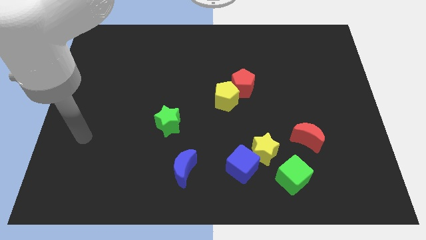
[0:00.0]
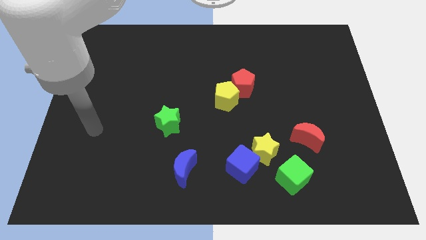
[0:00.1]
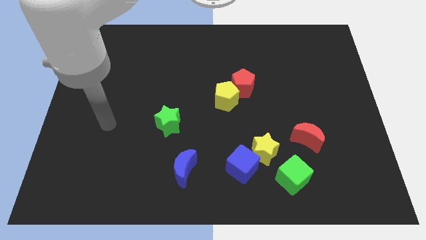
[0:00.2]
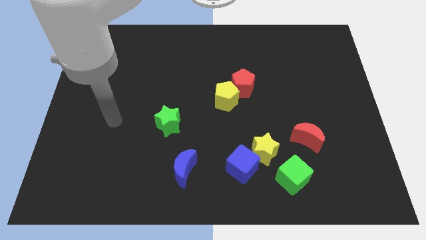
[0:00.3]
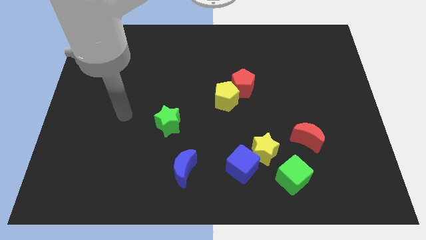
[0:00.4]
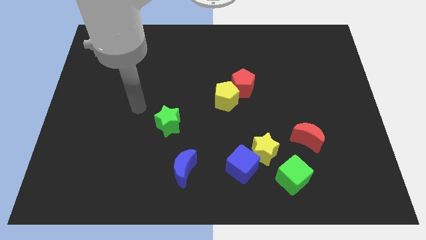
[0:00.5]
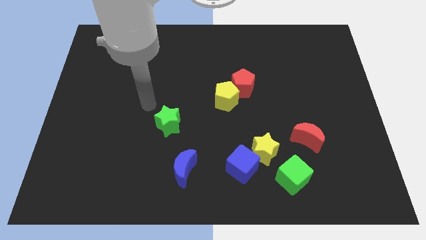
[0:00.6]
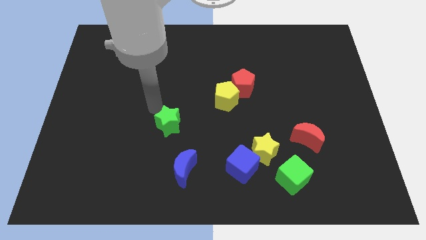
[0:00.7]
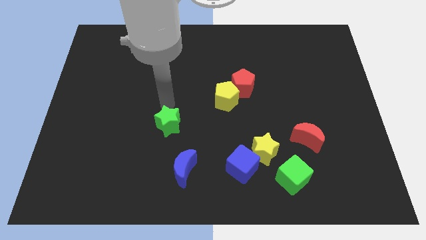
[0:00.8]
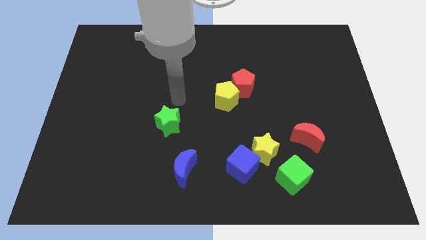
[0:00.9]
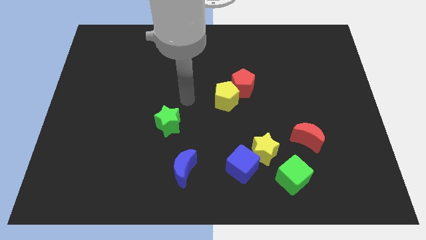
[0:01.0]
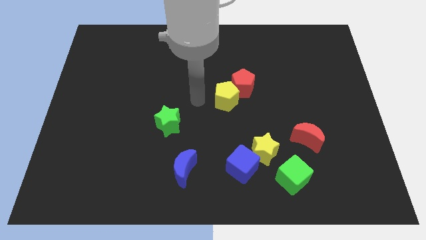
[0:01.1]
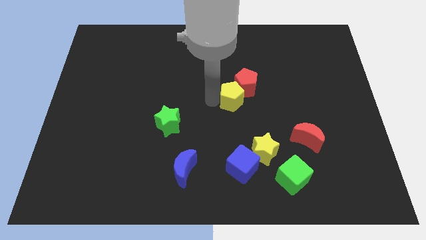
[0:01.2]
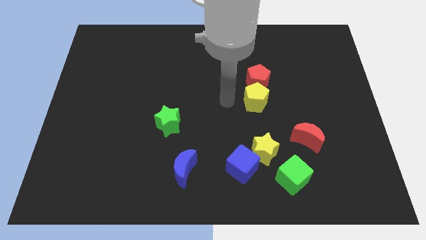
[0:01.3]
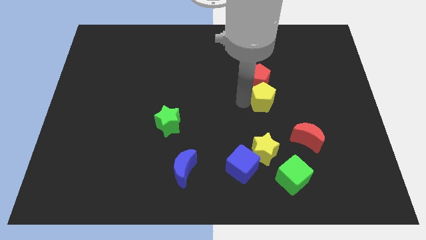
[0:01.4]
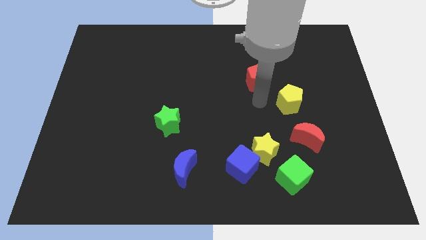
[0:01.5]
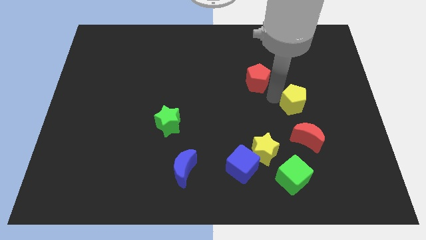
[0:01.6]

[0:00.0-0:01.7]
separate the red pentagon from the yellow pentagon

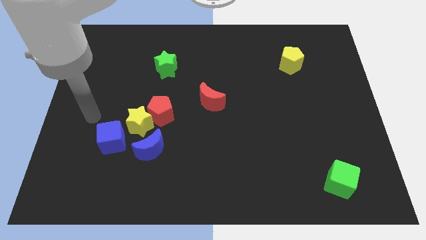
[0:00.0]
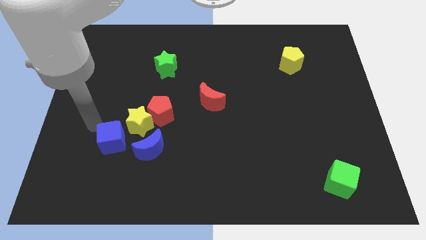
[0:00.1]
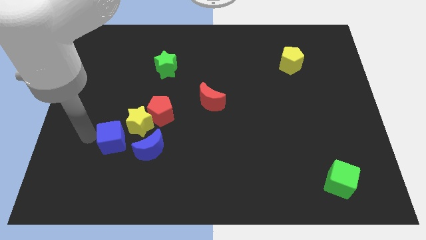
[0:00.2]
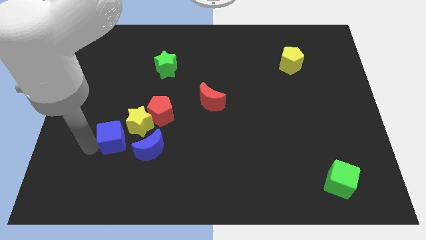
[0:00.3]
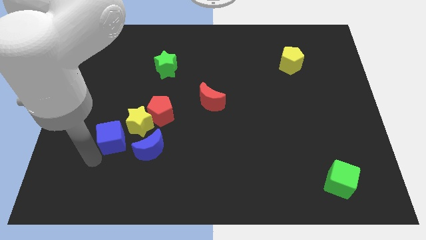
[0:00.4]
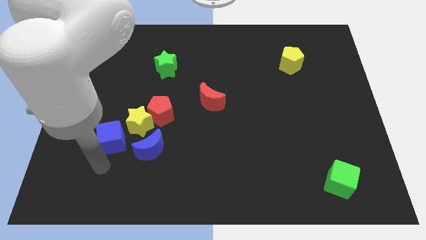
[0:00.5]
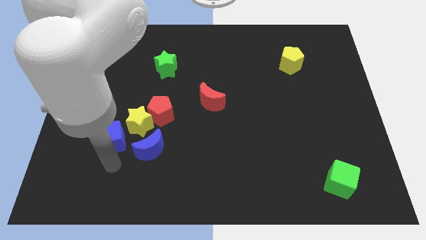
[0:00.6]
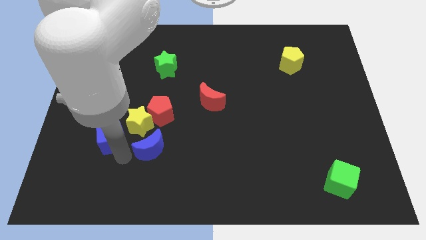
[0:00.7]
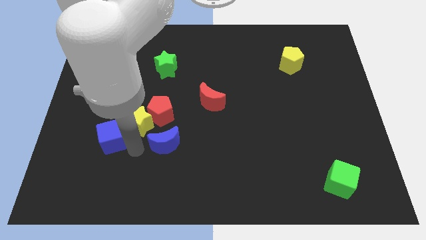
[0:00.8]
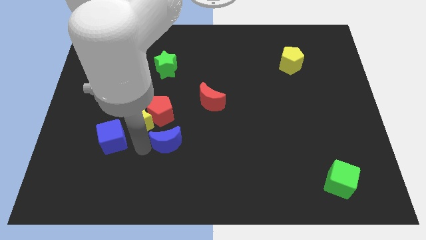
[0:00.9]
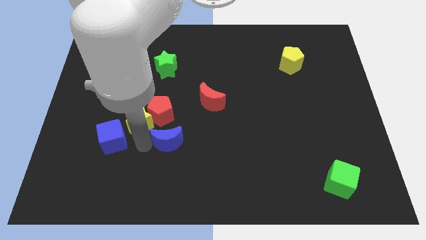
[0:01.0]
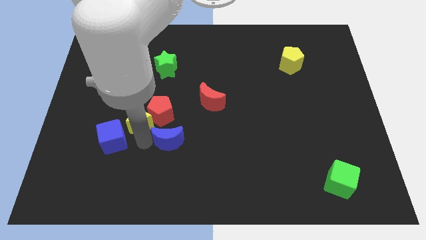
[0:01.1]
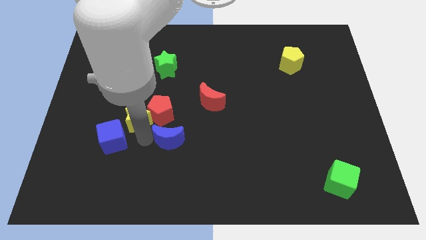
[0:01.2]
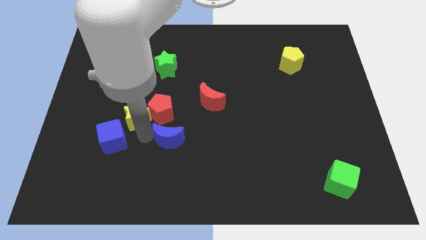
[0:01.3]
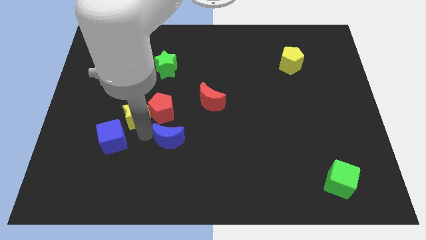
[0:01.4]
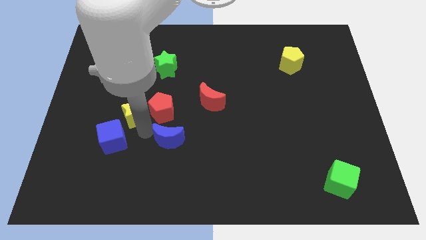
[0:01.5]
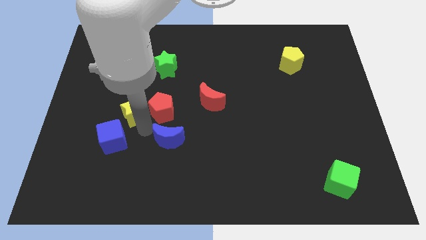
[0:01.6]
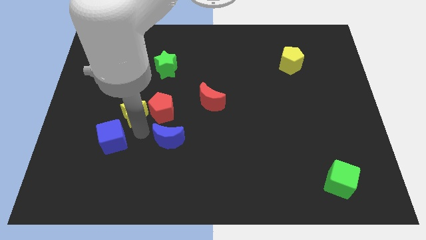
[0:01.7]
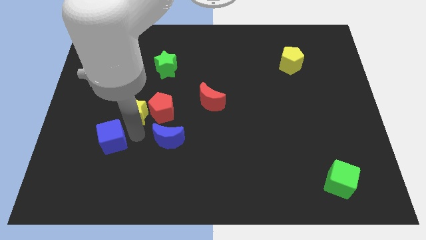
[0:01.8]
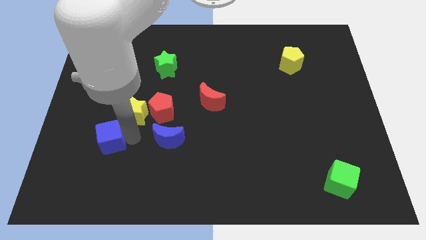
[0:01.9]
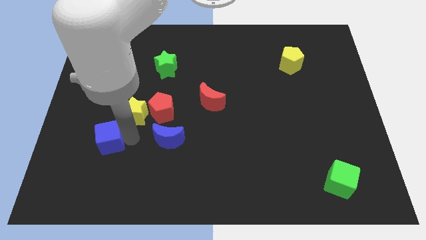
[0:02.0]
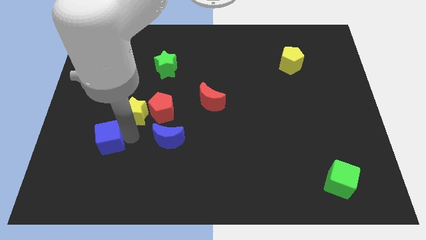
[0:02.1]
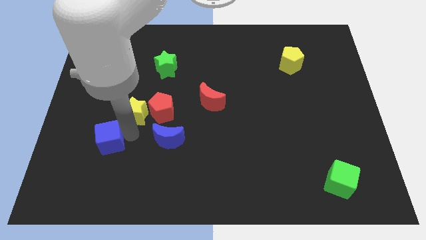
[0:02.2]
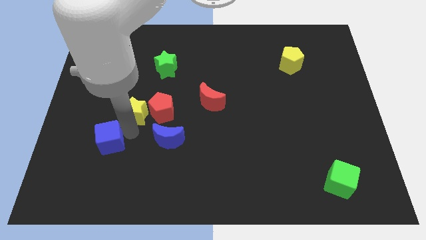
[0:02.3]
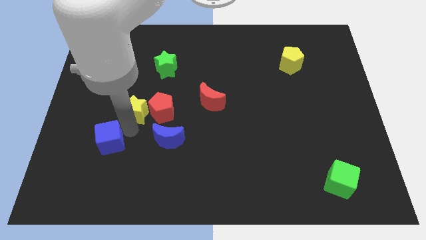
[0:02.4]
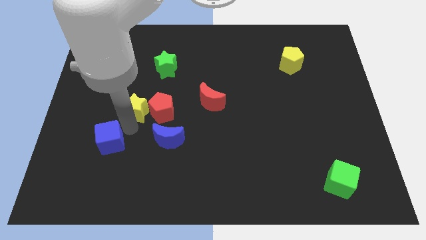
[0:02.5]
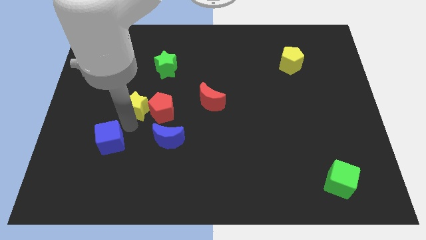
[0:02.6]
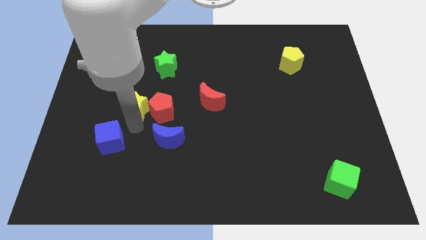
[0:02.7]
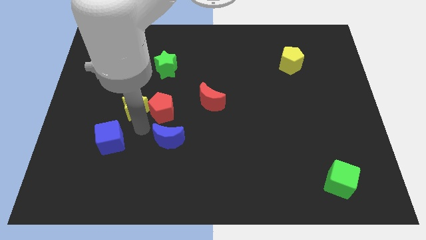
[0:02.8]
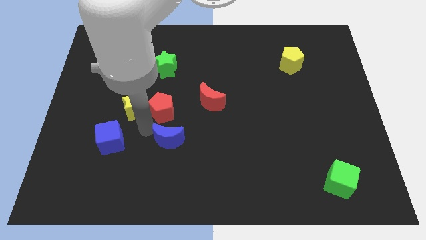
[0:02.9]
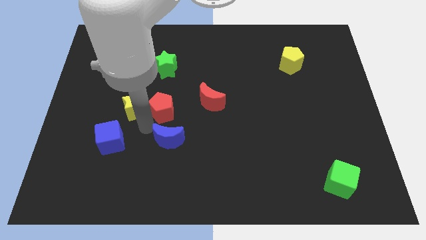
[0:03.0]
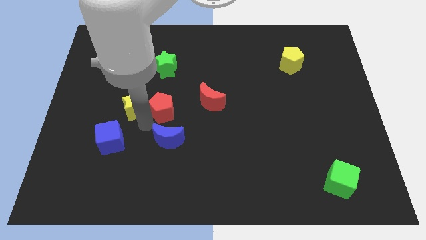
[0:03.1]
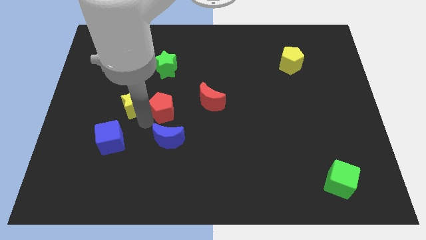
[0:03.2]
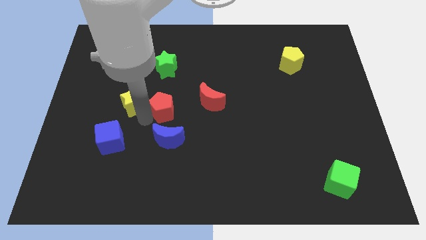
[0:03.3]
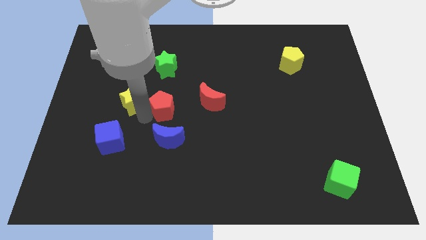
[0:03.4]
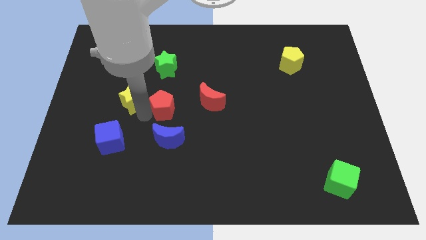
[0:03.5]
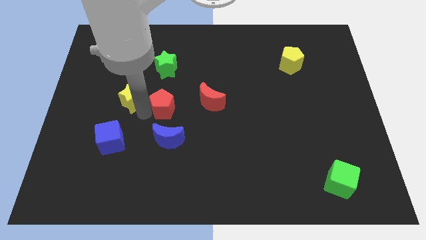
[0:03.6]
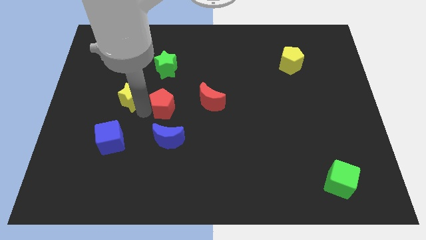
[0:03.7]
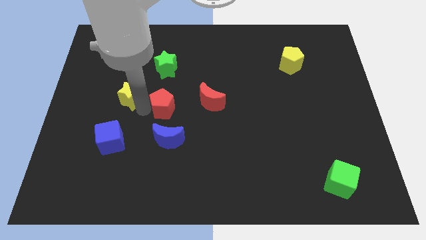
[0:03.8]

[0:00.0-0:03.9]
move the yellow star away from the red pentagon, blue cube, and blue moon

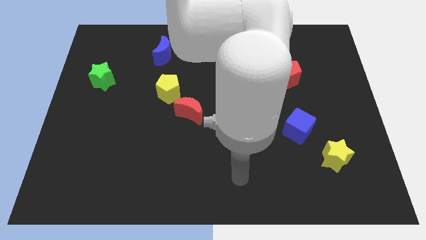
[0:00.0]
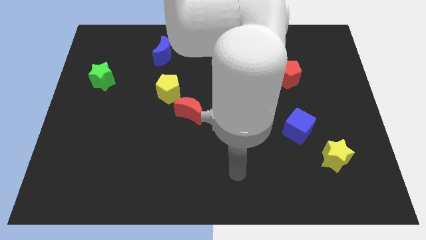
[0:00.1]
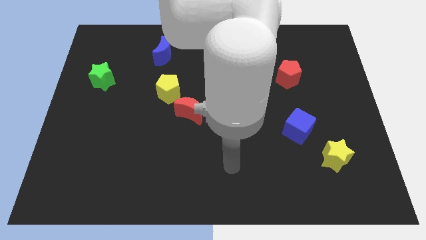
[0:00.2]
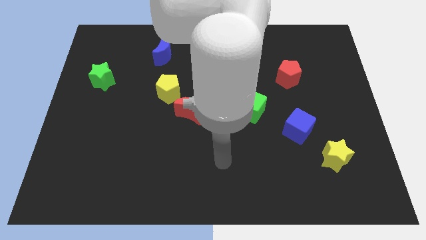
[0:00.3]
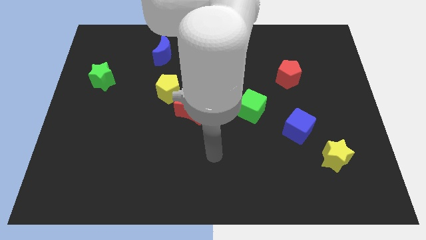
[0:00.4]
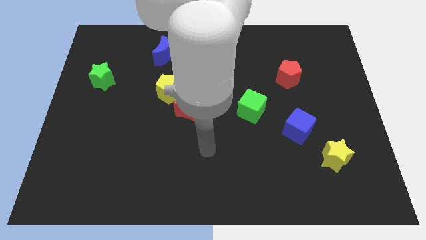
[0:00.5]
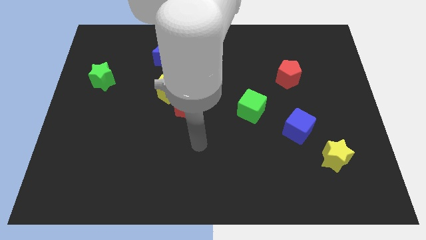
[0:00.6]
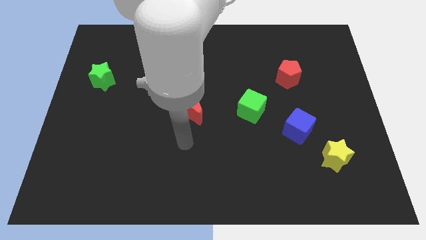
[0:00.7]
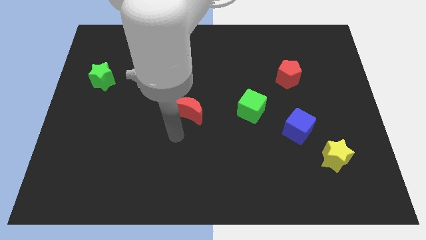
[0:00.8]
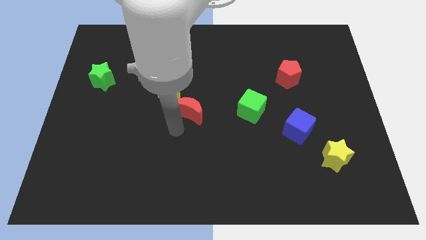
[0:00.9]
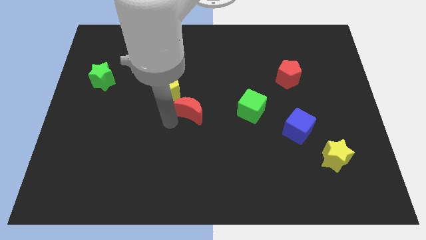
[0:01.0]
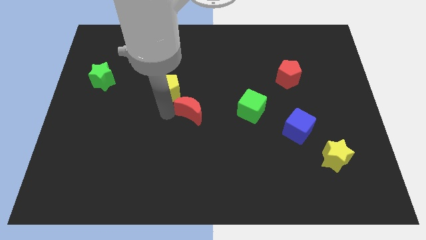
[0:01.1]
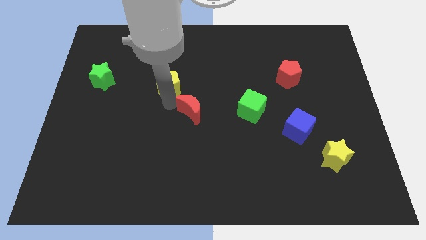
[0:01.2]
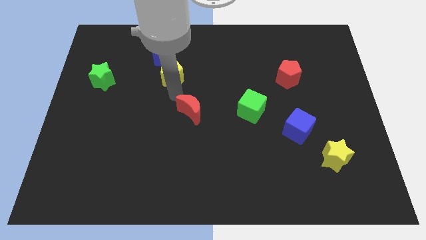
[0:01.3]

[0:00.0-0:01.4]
separate the red moon from the yellow pentagon

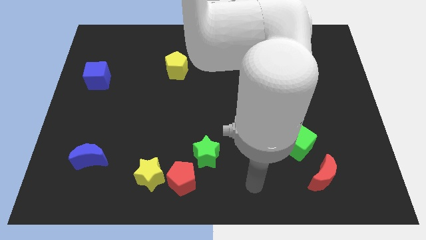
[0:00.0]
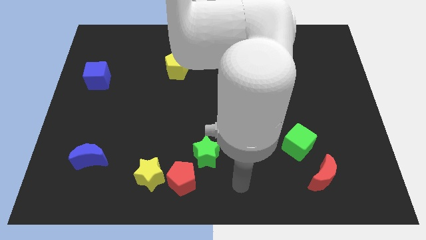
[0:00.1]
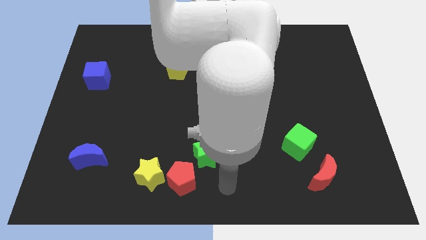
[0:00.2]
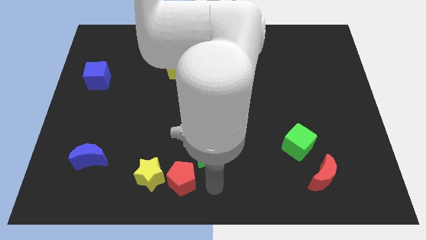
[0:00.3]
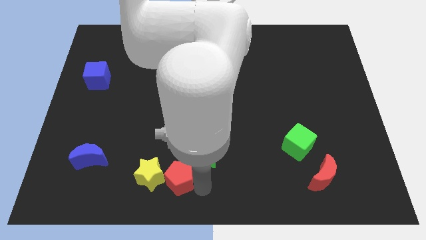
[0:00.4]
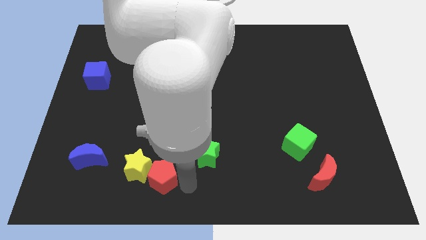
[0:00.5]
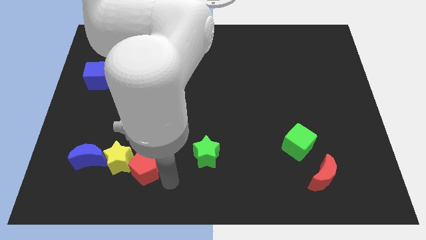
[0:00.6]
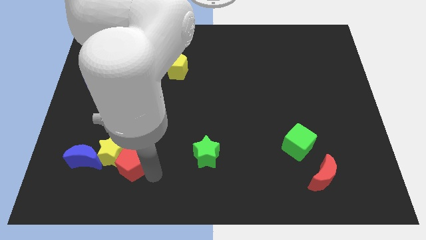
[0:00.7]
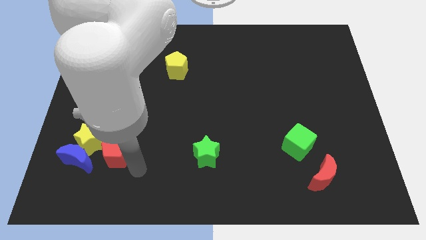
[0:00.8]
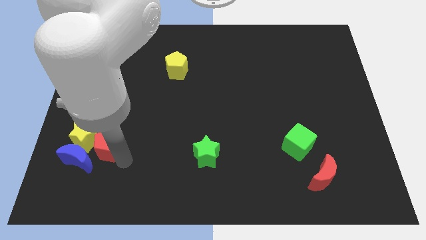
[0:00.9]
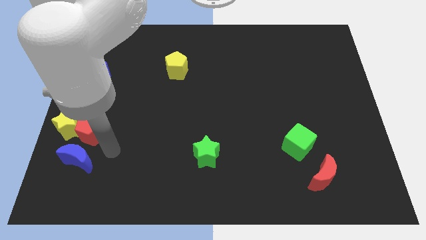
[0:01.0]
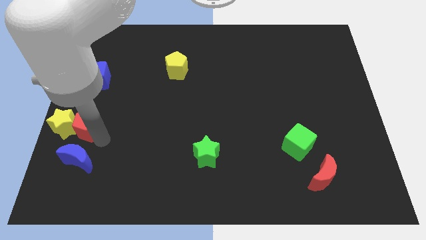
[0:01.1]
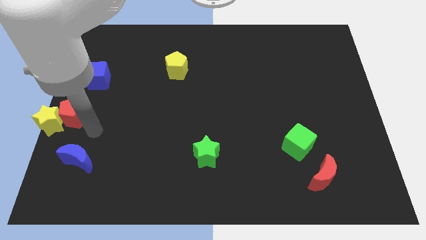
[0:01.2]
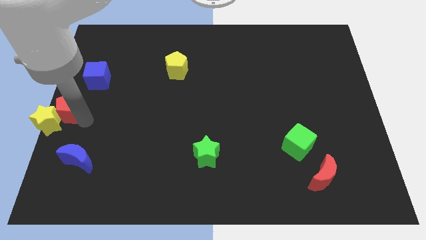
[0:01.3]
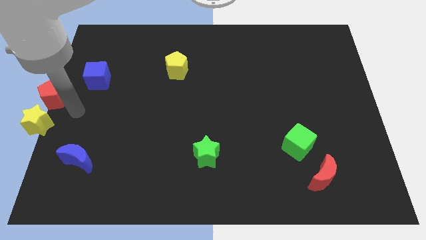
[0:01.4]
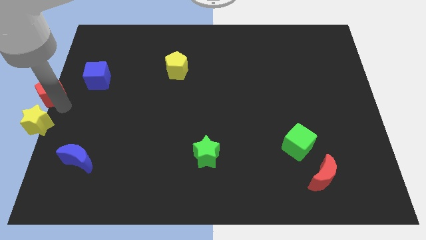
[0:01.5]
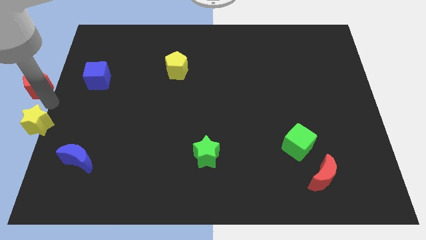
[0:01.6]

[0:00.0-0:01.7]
pull the yellow star apart from the red pentagon

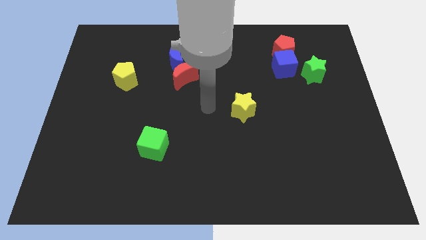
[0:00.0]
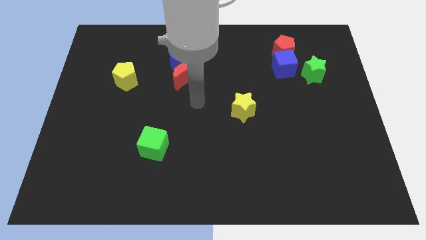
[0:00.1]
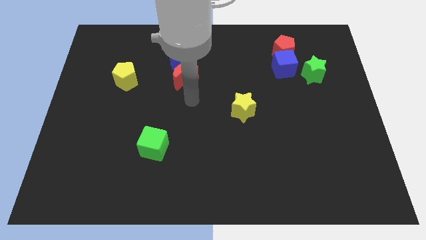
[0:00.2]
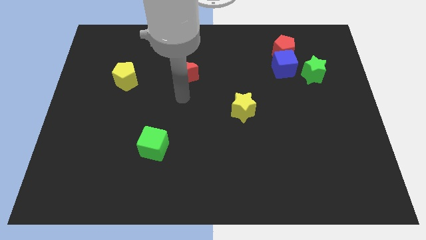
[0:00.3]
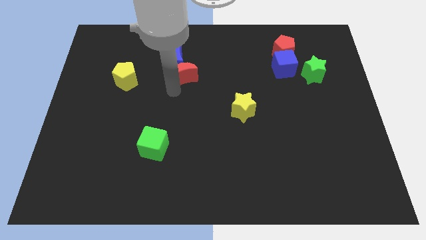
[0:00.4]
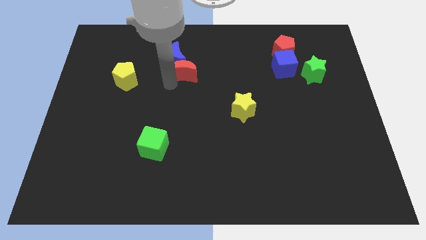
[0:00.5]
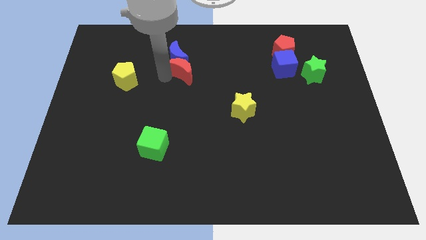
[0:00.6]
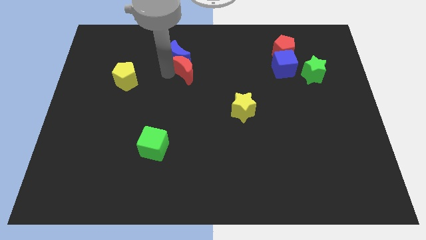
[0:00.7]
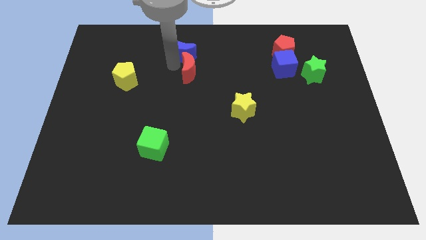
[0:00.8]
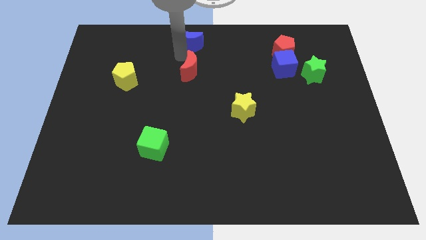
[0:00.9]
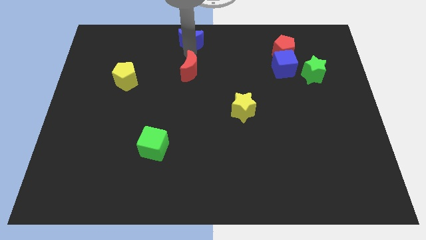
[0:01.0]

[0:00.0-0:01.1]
move the red moon away from the blue moon
